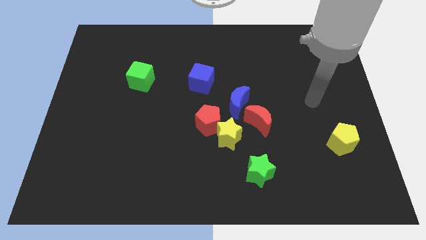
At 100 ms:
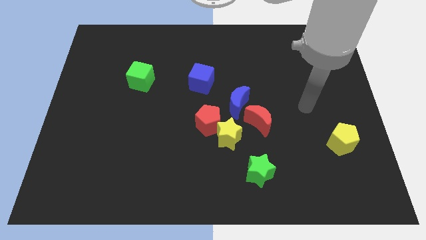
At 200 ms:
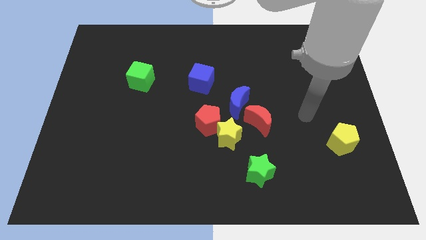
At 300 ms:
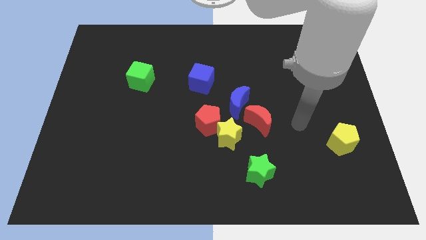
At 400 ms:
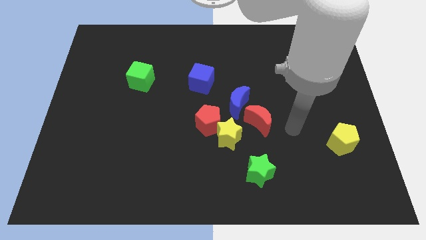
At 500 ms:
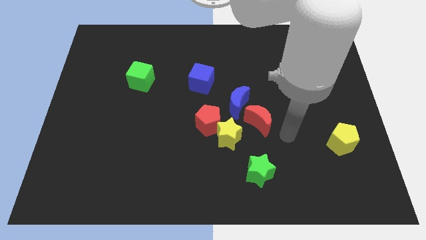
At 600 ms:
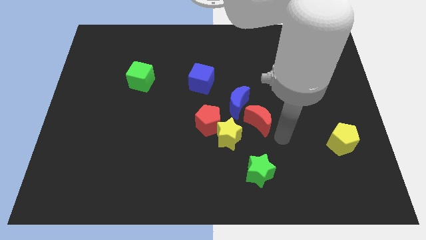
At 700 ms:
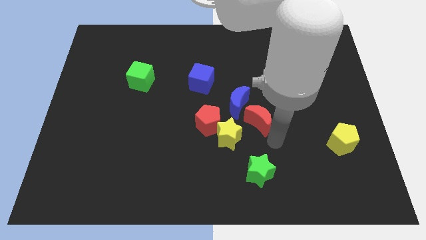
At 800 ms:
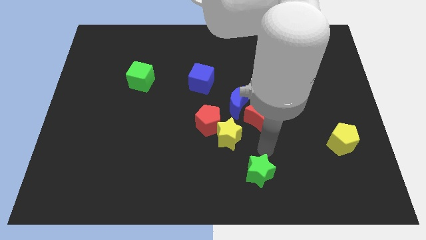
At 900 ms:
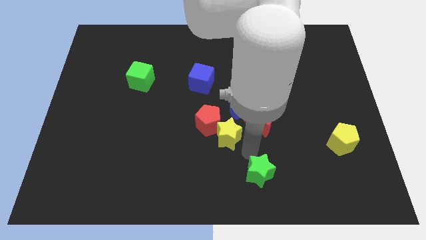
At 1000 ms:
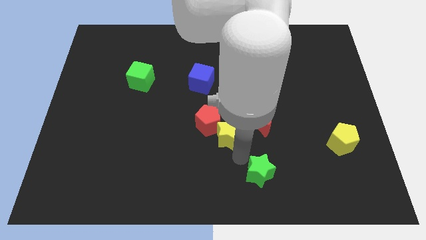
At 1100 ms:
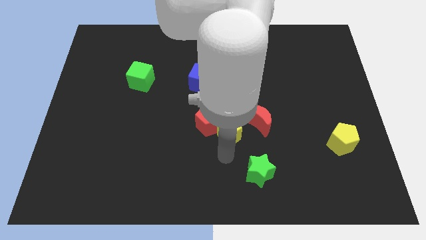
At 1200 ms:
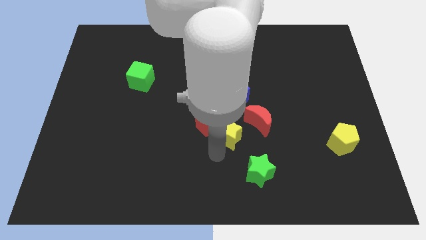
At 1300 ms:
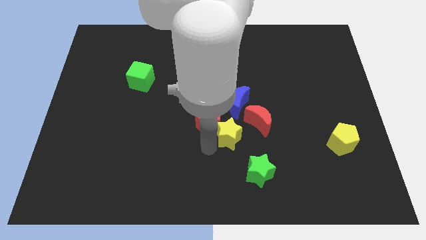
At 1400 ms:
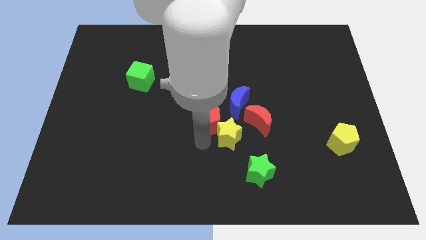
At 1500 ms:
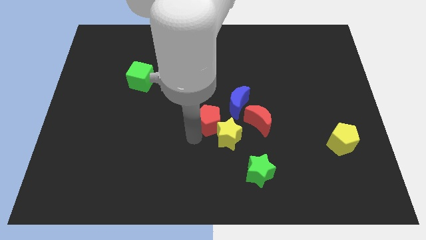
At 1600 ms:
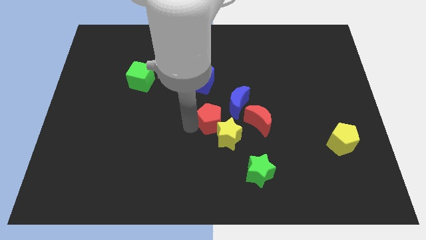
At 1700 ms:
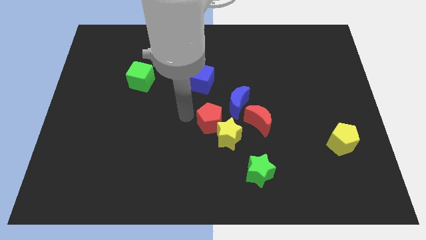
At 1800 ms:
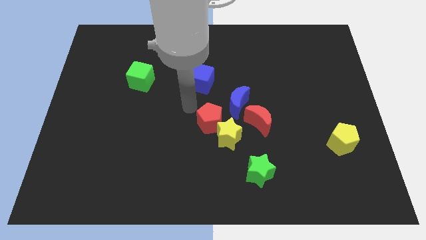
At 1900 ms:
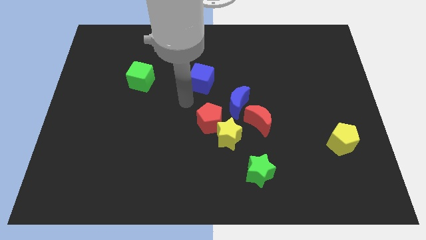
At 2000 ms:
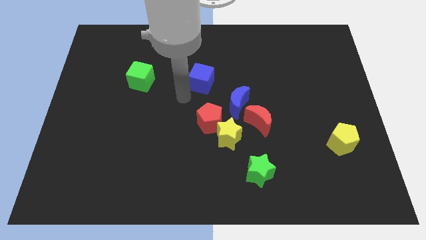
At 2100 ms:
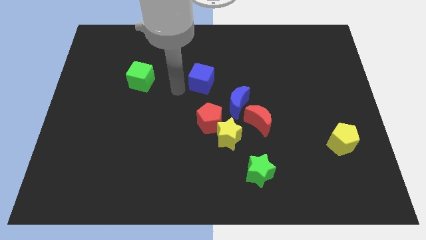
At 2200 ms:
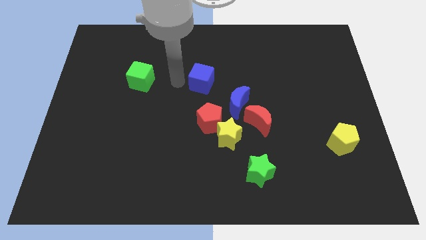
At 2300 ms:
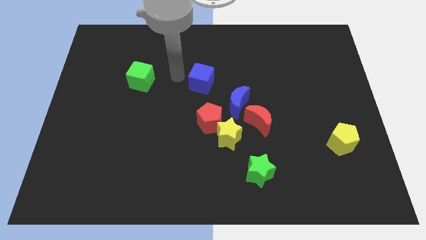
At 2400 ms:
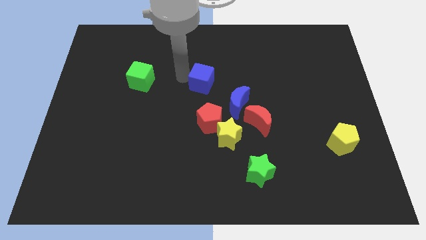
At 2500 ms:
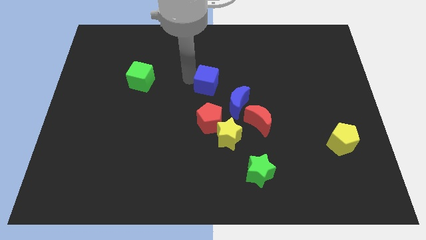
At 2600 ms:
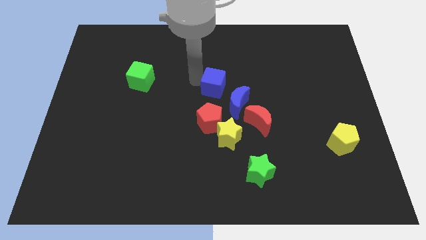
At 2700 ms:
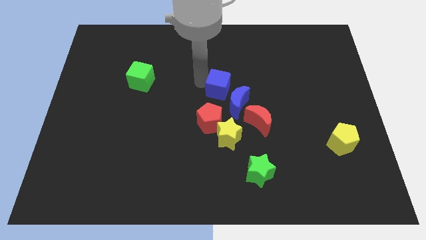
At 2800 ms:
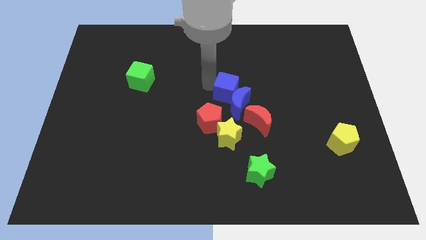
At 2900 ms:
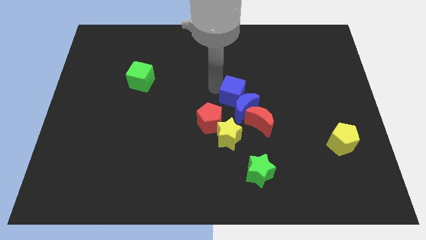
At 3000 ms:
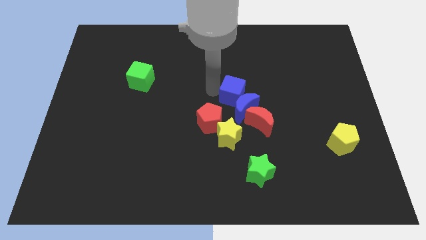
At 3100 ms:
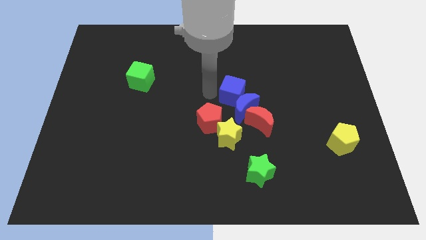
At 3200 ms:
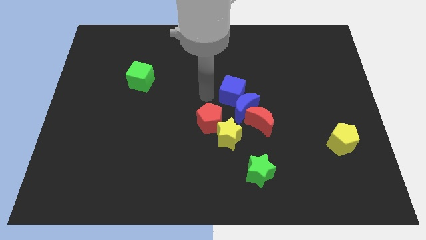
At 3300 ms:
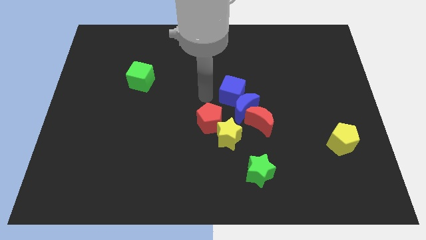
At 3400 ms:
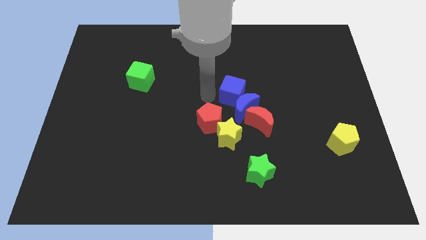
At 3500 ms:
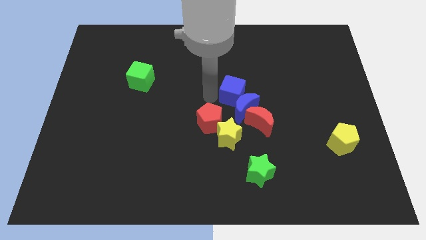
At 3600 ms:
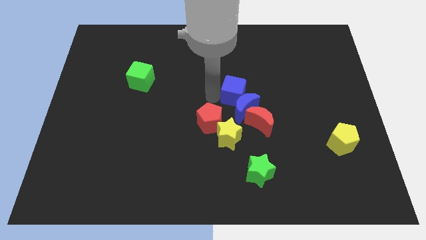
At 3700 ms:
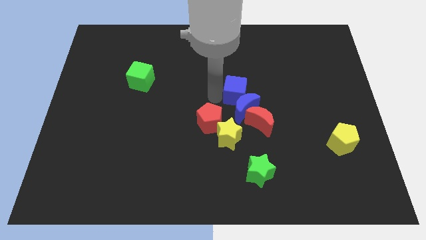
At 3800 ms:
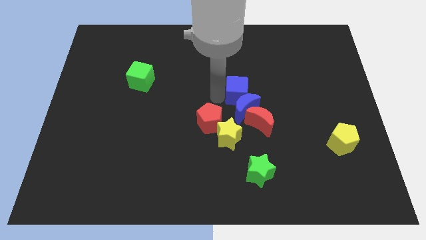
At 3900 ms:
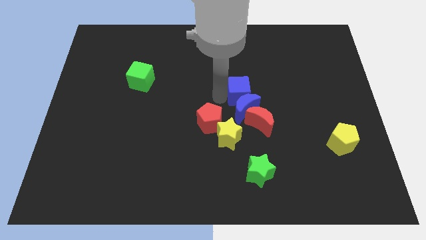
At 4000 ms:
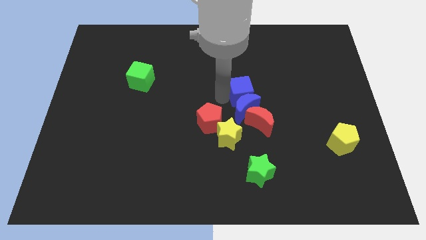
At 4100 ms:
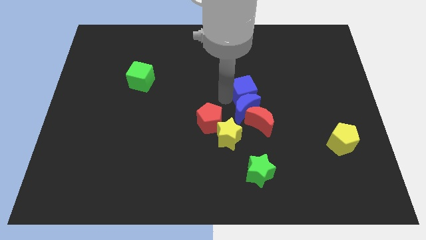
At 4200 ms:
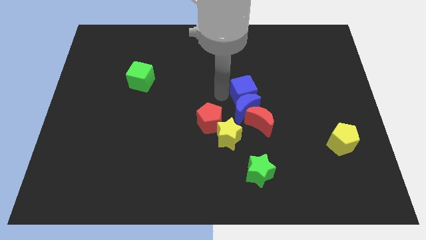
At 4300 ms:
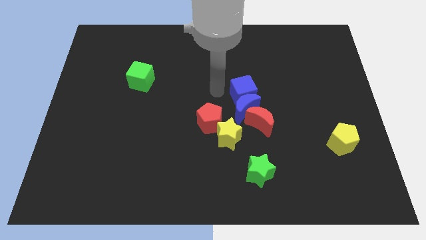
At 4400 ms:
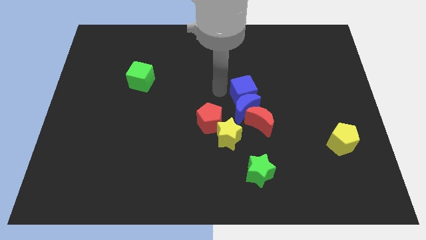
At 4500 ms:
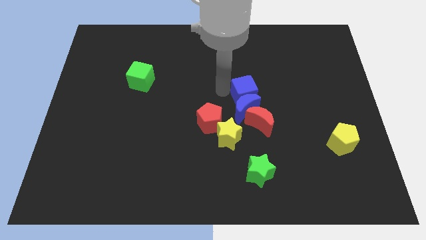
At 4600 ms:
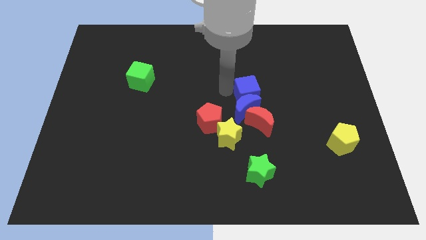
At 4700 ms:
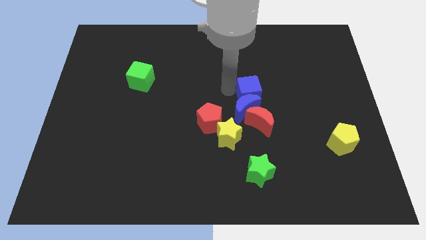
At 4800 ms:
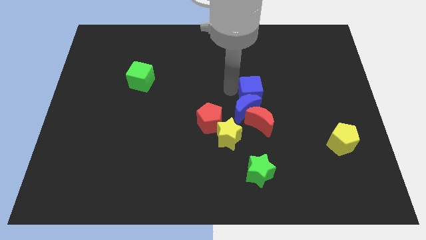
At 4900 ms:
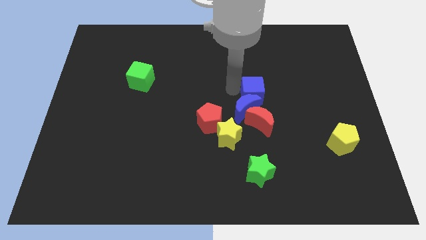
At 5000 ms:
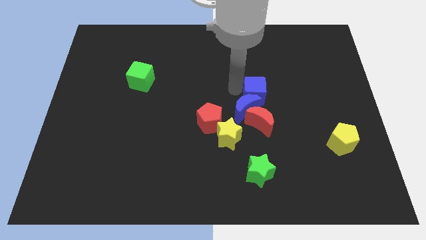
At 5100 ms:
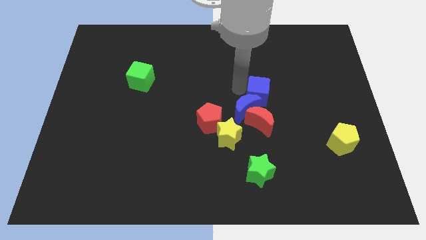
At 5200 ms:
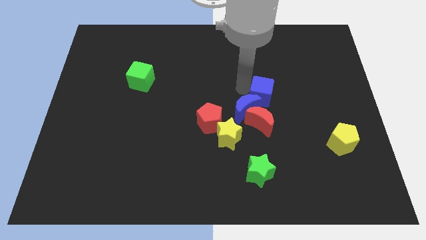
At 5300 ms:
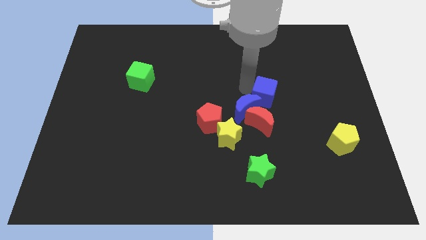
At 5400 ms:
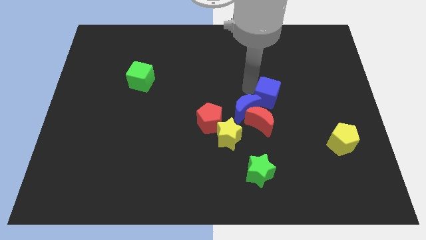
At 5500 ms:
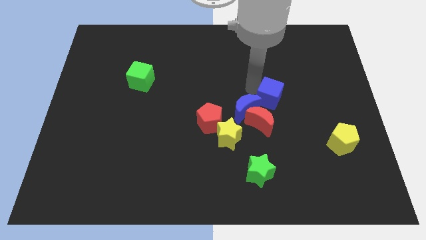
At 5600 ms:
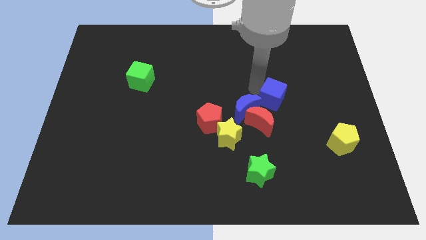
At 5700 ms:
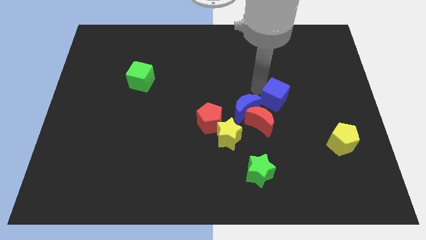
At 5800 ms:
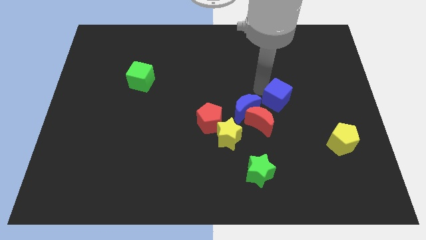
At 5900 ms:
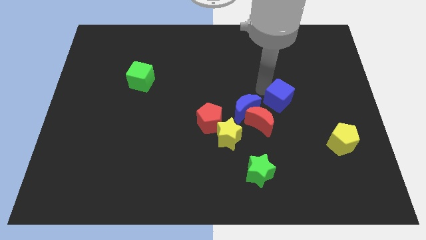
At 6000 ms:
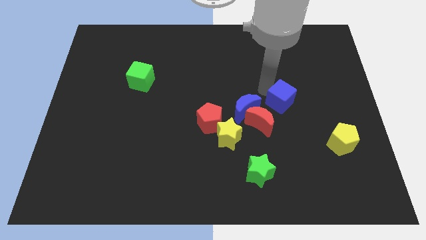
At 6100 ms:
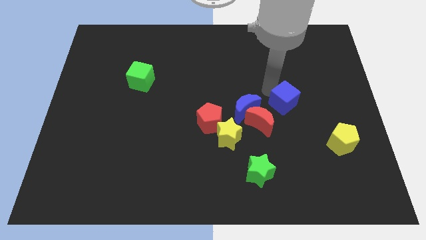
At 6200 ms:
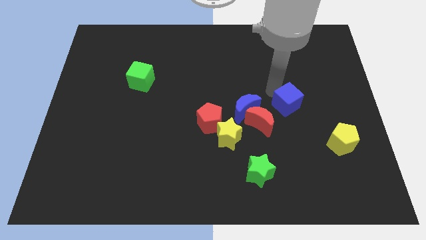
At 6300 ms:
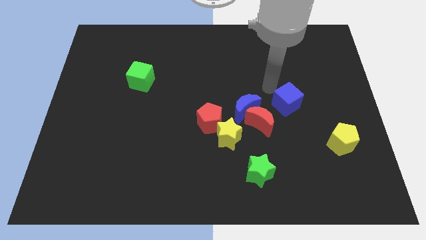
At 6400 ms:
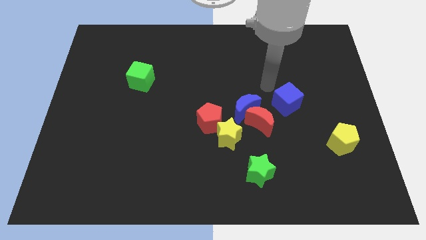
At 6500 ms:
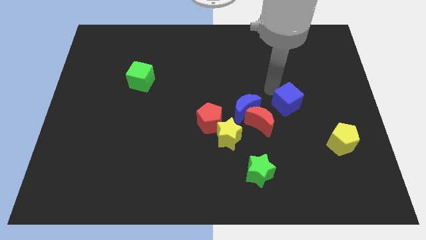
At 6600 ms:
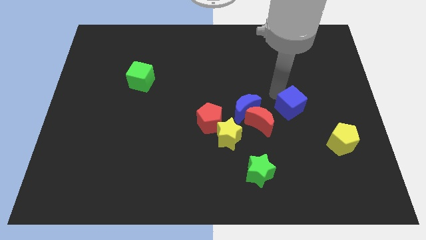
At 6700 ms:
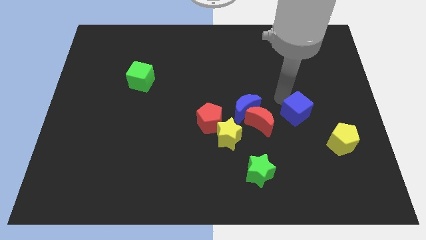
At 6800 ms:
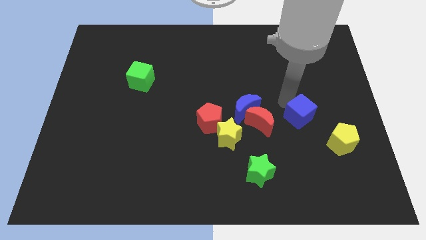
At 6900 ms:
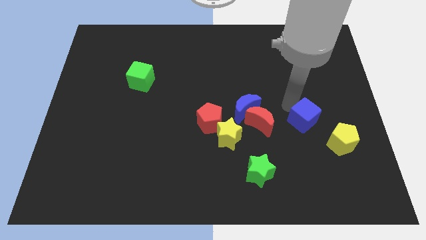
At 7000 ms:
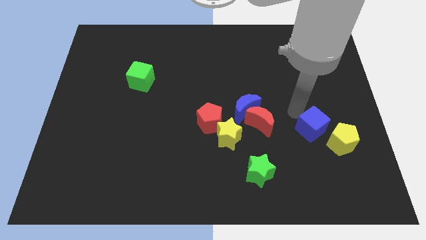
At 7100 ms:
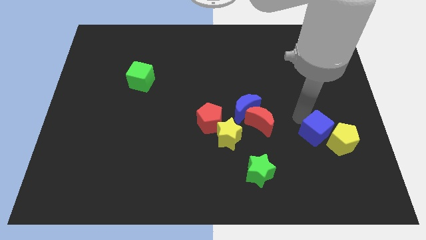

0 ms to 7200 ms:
push the blue cube to the yellow pentagon

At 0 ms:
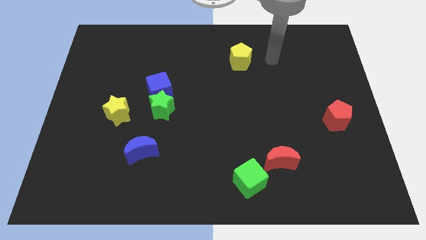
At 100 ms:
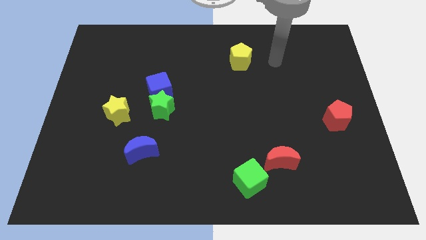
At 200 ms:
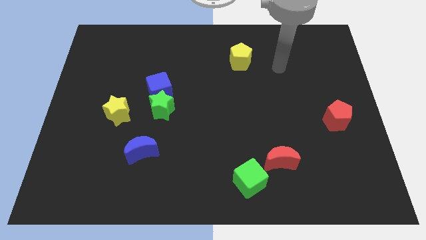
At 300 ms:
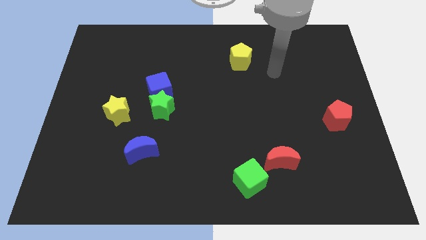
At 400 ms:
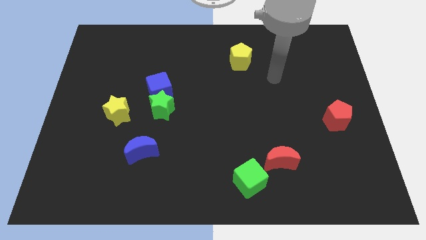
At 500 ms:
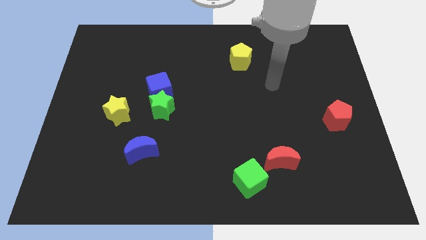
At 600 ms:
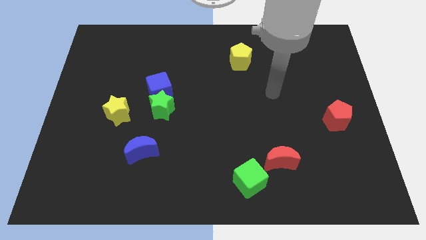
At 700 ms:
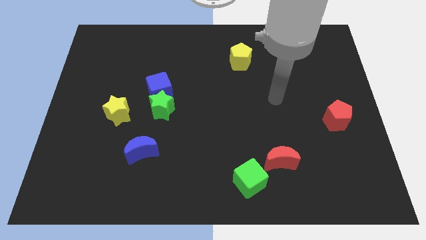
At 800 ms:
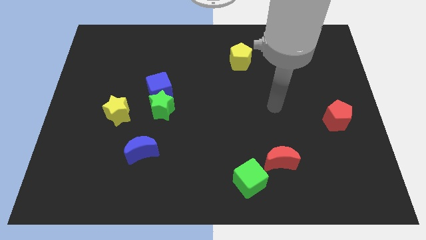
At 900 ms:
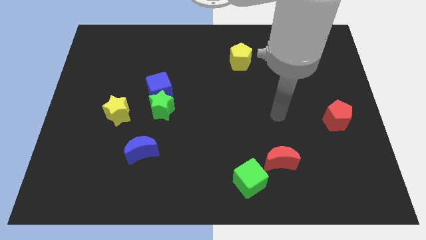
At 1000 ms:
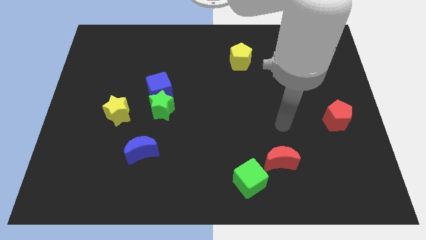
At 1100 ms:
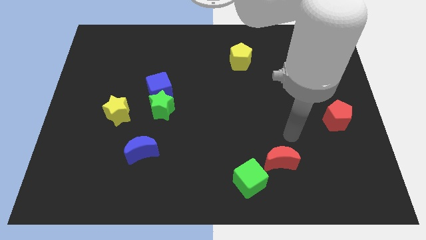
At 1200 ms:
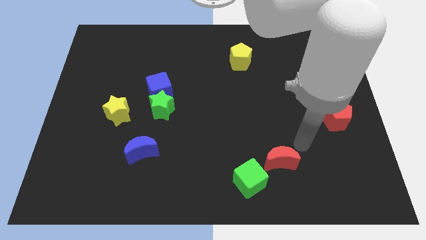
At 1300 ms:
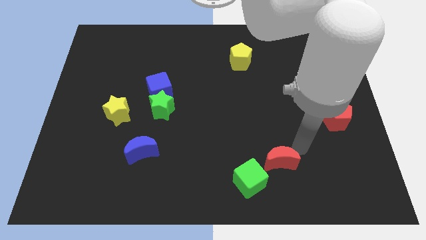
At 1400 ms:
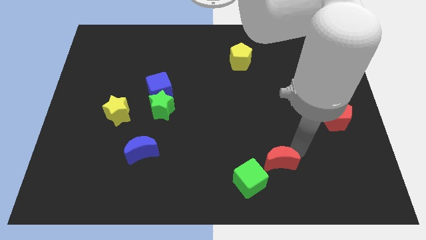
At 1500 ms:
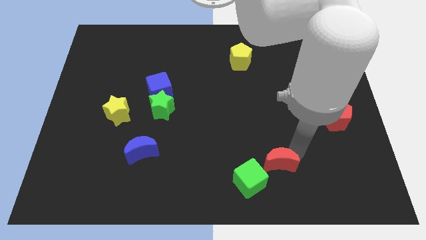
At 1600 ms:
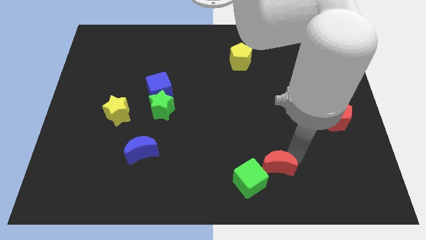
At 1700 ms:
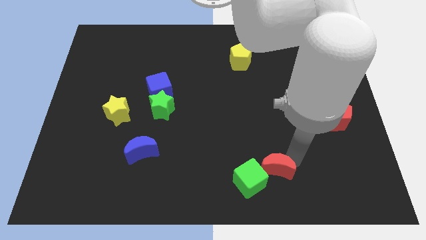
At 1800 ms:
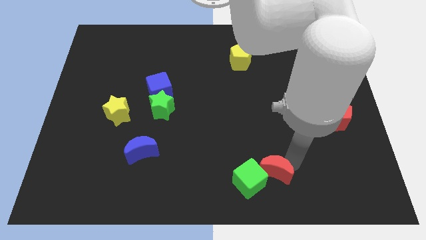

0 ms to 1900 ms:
move the red moon next to the green cube
